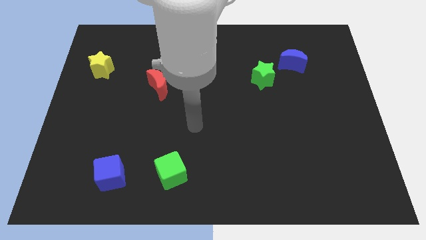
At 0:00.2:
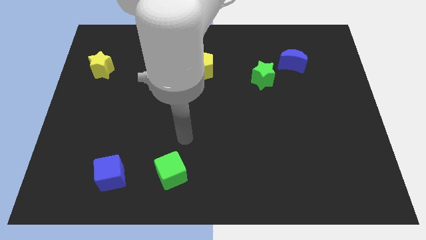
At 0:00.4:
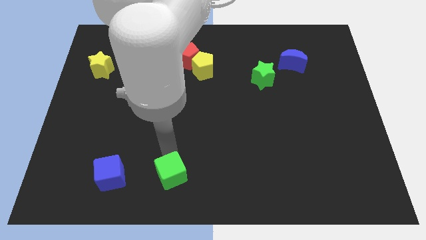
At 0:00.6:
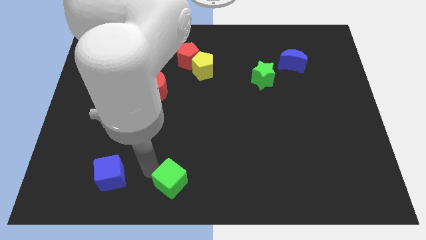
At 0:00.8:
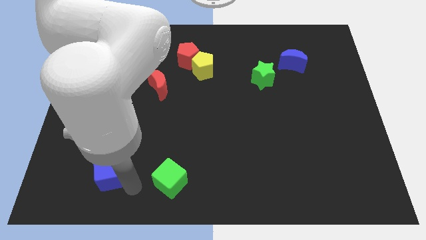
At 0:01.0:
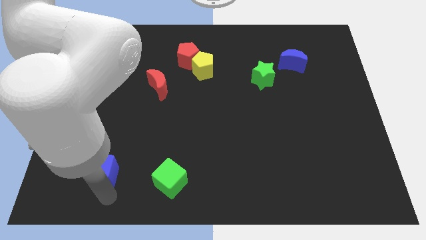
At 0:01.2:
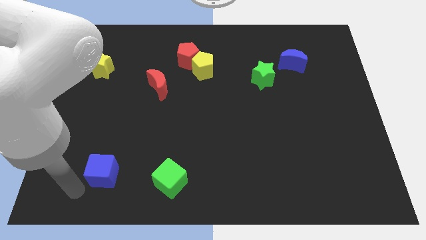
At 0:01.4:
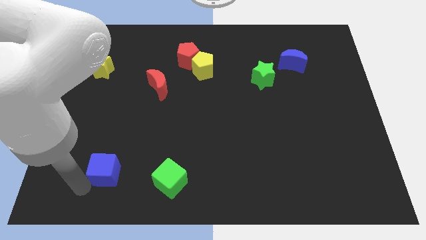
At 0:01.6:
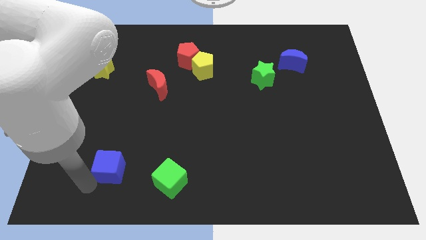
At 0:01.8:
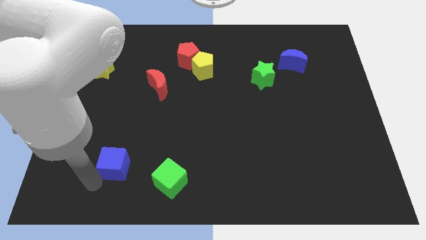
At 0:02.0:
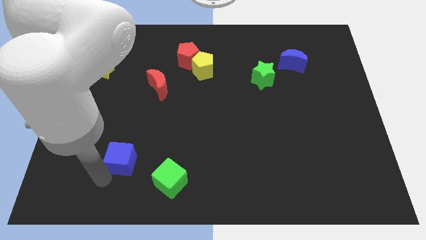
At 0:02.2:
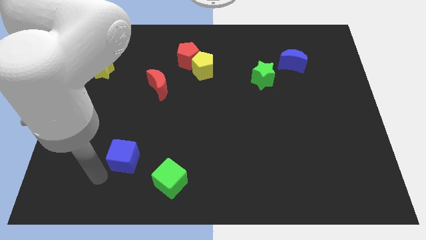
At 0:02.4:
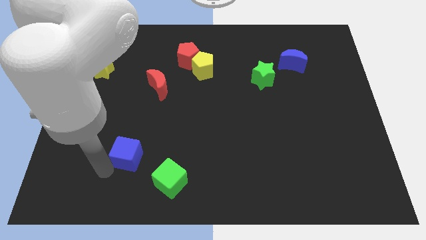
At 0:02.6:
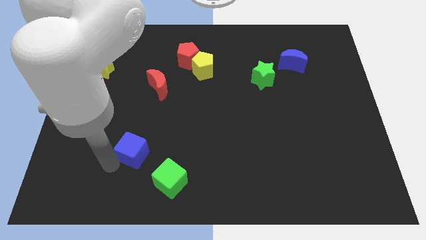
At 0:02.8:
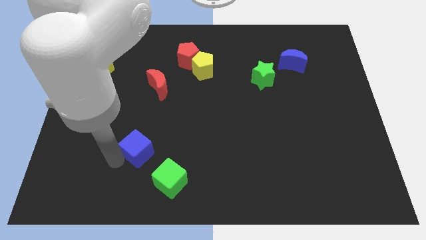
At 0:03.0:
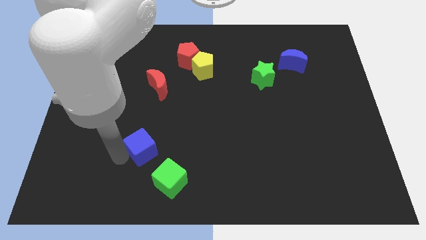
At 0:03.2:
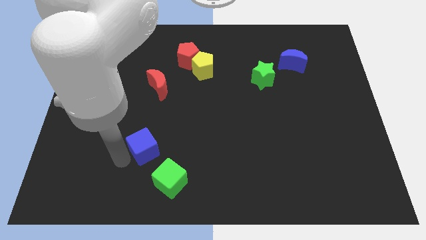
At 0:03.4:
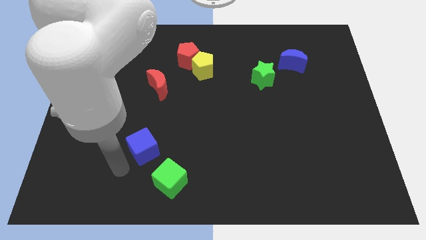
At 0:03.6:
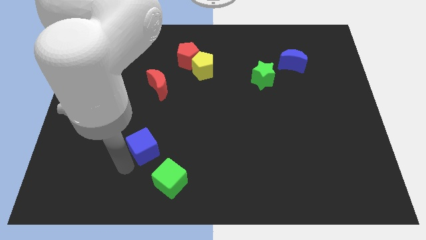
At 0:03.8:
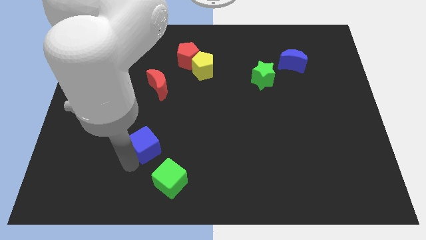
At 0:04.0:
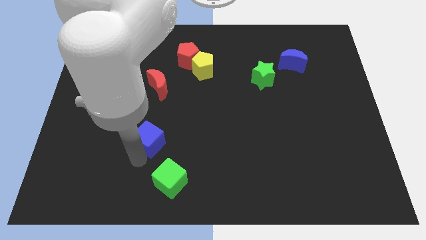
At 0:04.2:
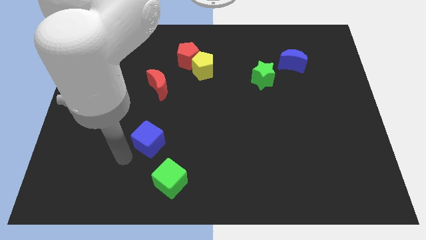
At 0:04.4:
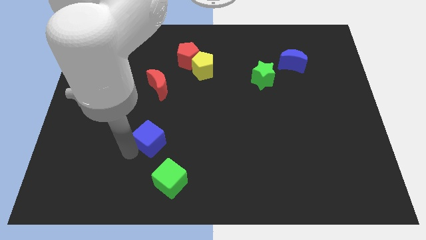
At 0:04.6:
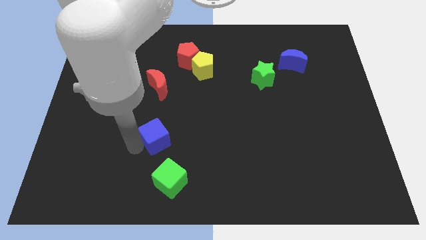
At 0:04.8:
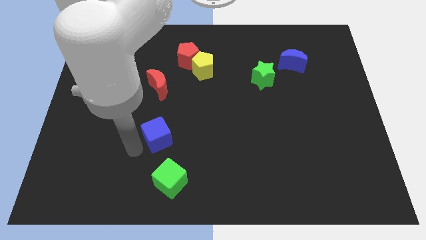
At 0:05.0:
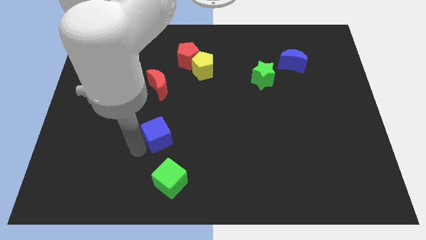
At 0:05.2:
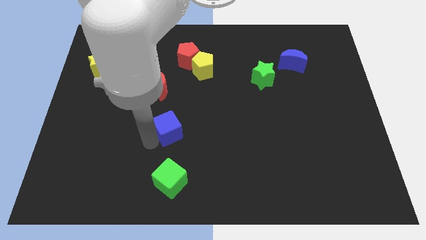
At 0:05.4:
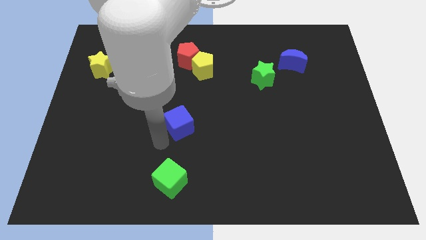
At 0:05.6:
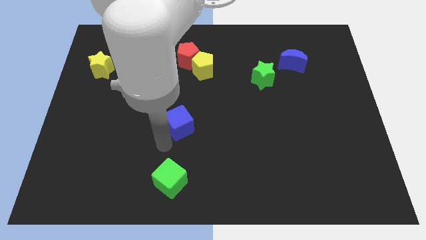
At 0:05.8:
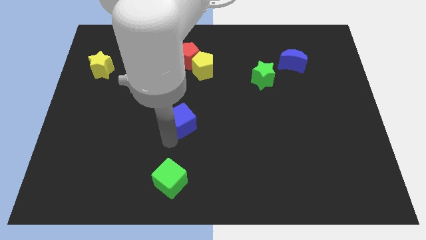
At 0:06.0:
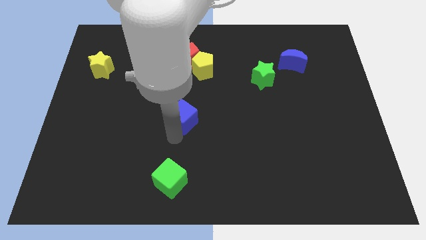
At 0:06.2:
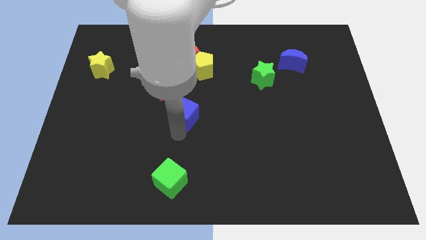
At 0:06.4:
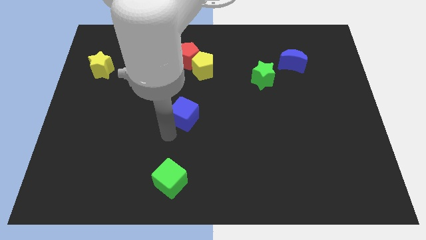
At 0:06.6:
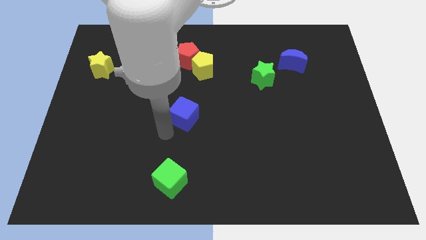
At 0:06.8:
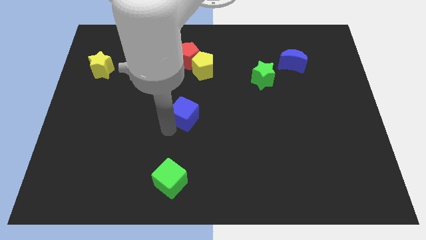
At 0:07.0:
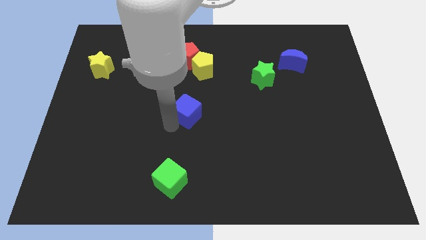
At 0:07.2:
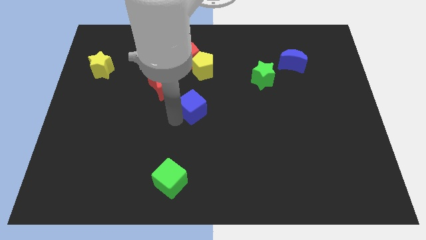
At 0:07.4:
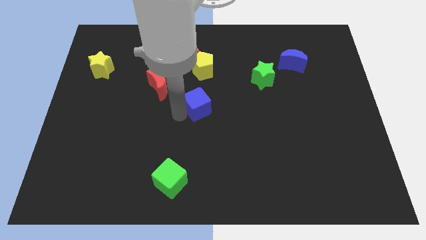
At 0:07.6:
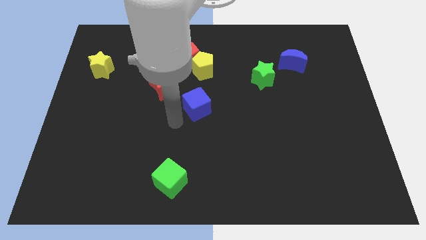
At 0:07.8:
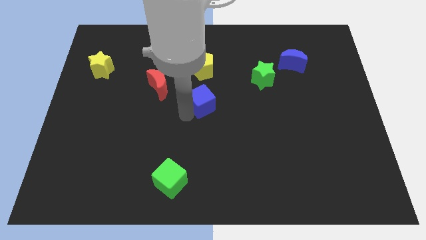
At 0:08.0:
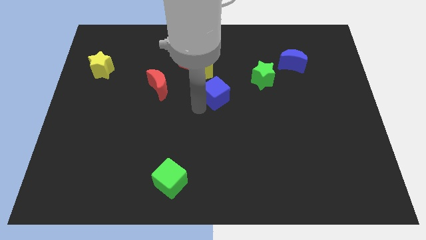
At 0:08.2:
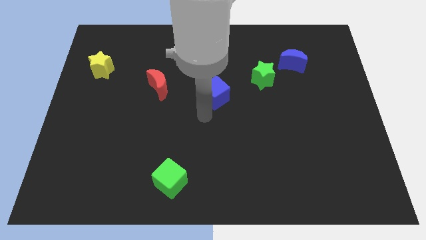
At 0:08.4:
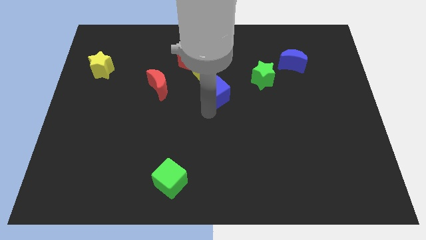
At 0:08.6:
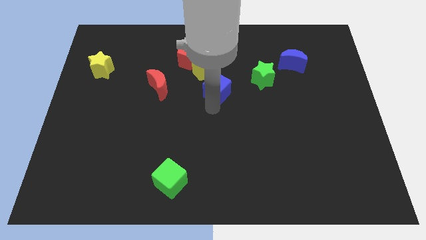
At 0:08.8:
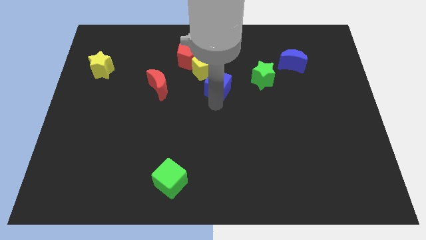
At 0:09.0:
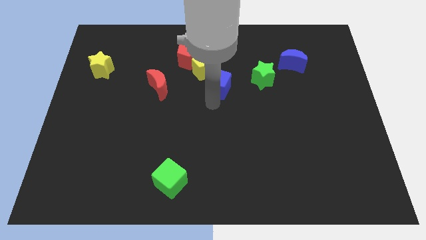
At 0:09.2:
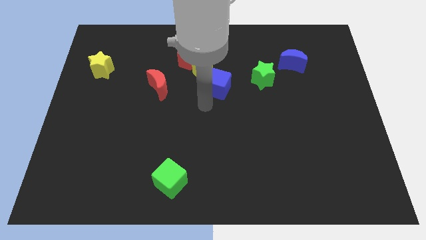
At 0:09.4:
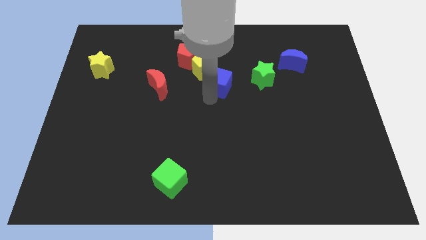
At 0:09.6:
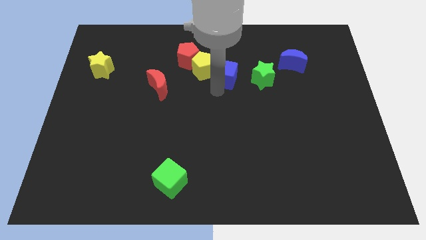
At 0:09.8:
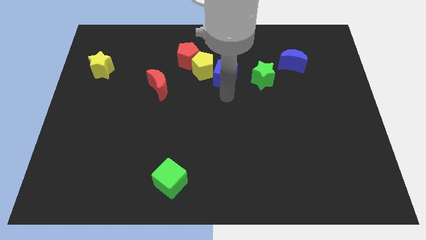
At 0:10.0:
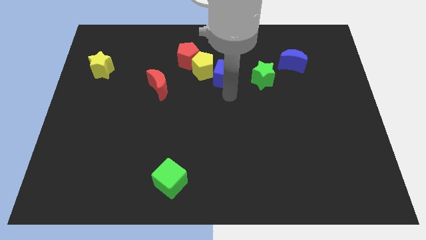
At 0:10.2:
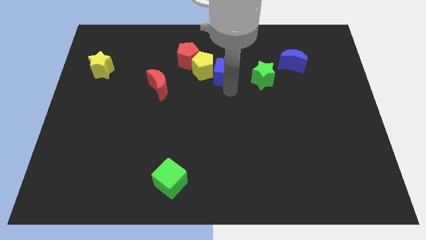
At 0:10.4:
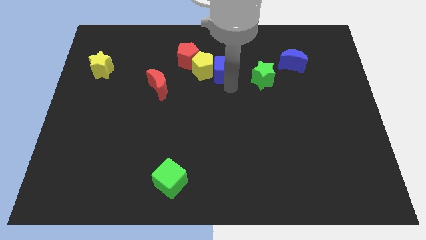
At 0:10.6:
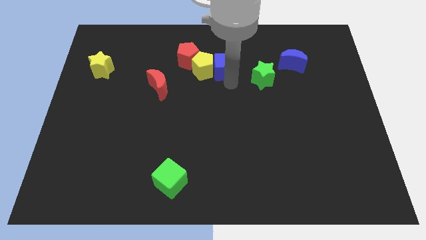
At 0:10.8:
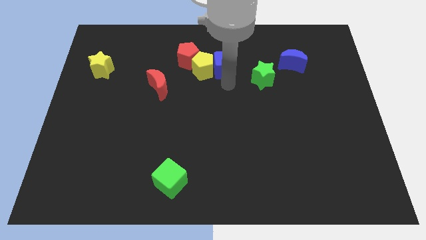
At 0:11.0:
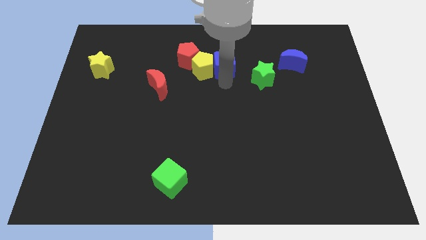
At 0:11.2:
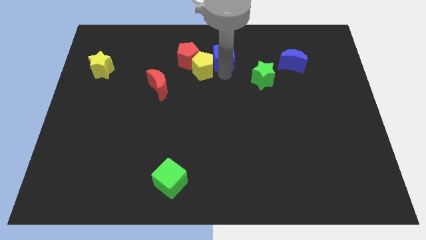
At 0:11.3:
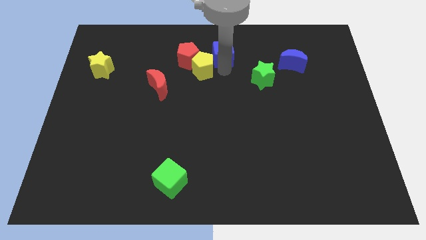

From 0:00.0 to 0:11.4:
slide the blue cube to the top side

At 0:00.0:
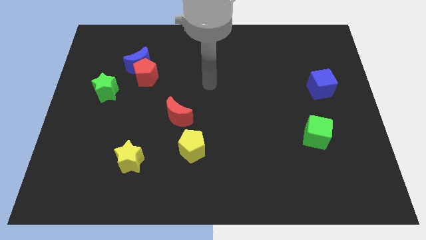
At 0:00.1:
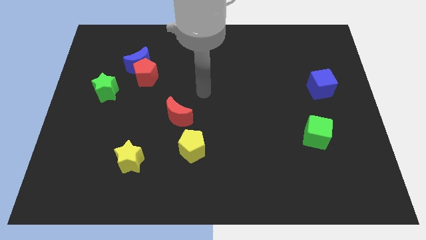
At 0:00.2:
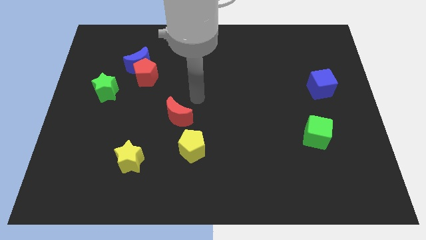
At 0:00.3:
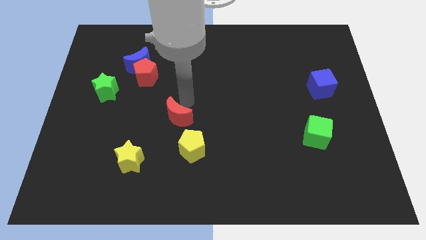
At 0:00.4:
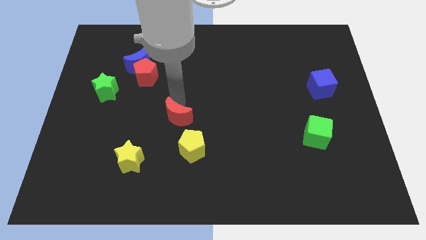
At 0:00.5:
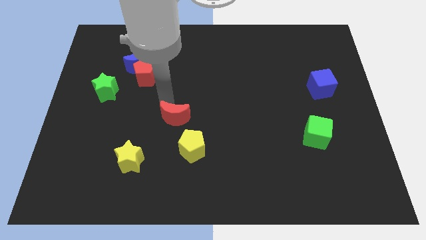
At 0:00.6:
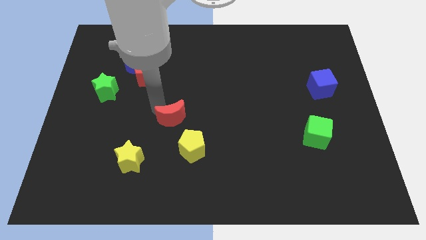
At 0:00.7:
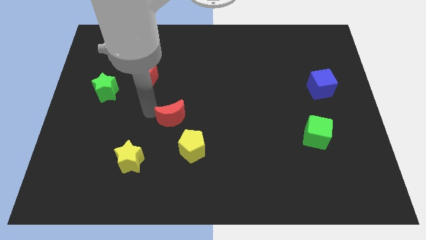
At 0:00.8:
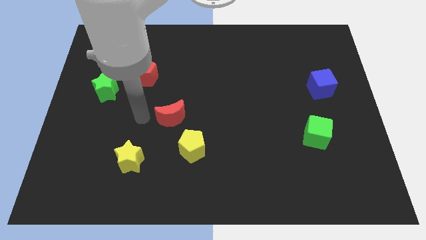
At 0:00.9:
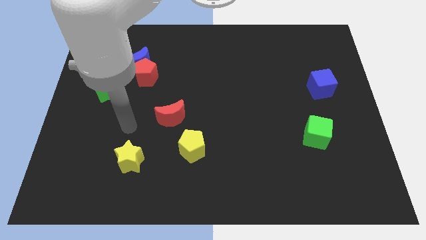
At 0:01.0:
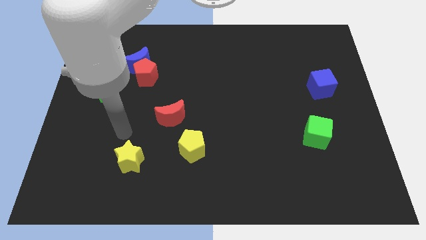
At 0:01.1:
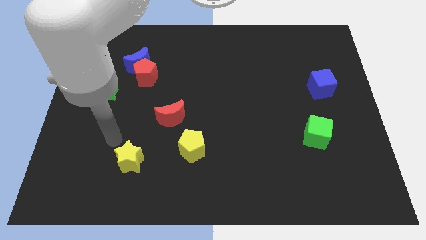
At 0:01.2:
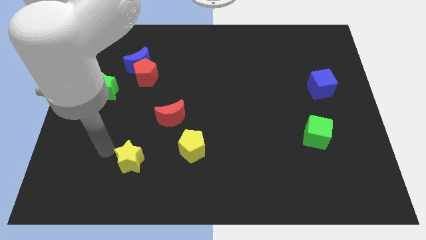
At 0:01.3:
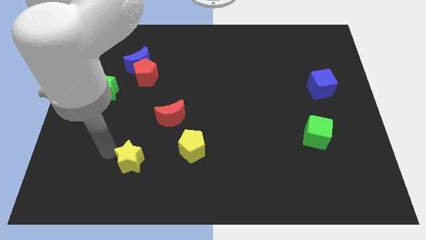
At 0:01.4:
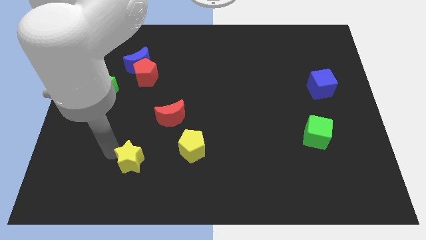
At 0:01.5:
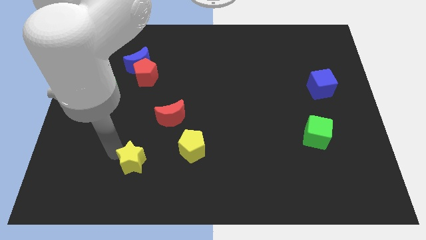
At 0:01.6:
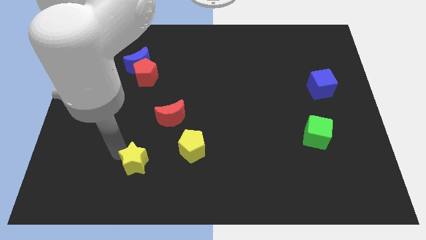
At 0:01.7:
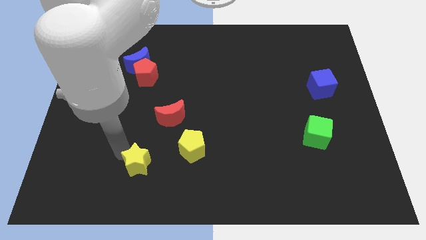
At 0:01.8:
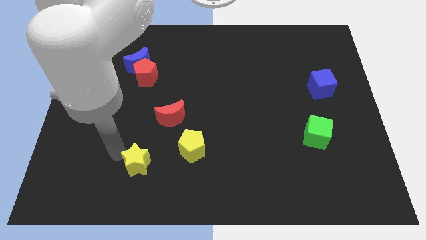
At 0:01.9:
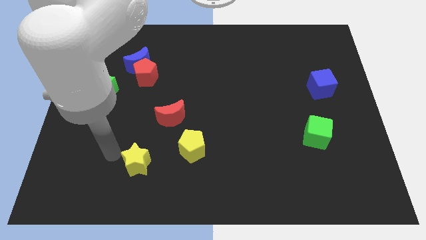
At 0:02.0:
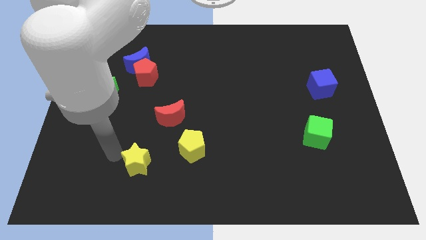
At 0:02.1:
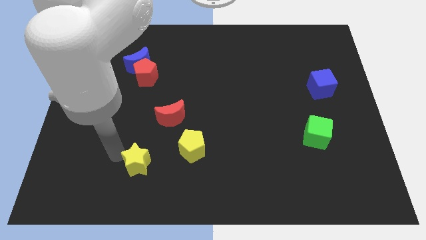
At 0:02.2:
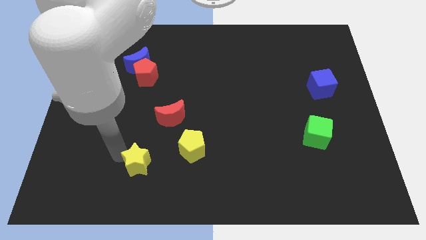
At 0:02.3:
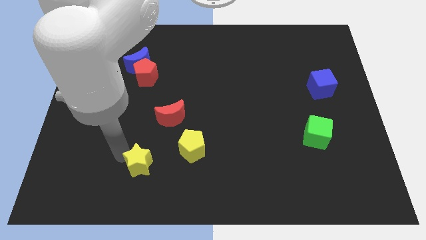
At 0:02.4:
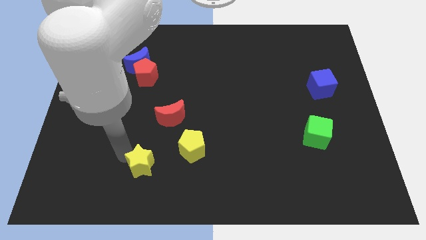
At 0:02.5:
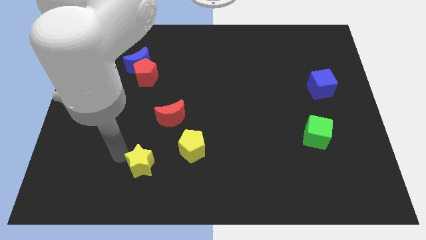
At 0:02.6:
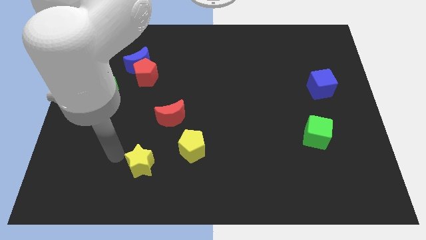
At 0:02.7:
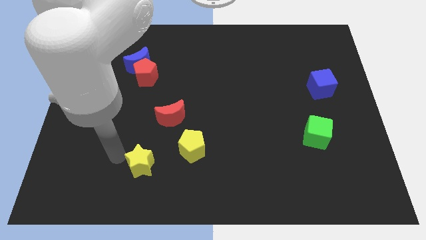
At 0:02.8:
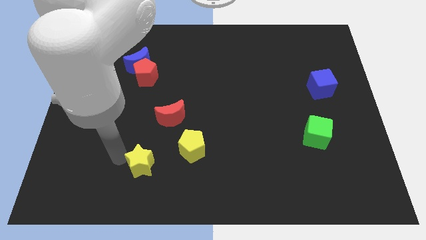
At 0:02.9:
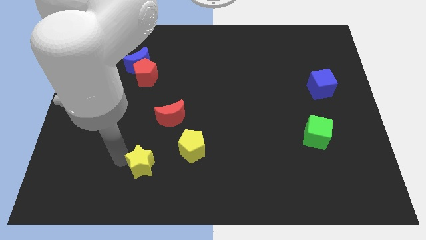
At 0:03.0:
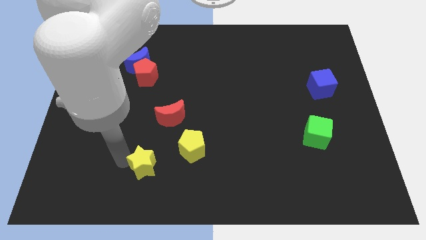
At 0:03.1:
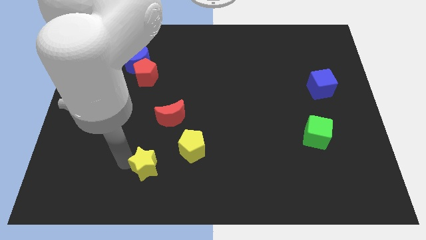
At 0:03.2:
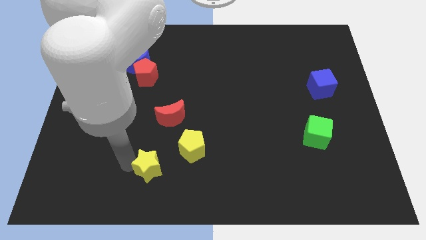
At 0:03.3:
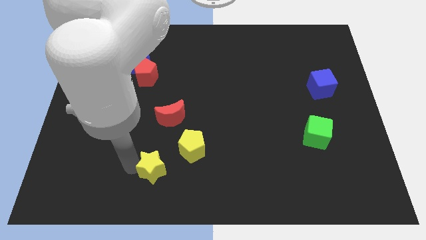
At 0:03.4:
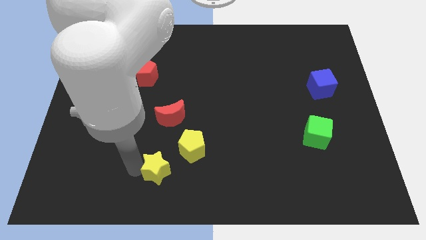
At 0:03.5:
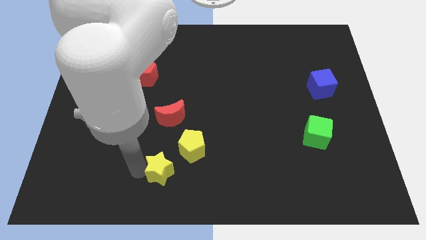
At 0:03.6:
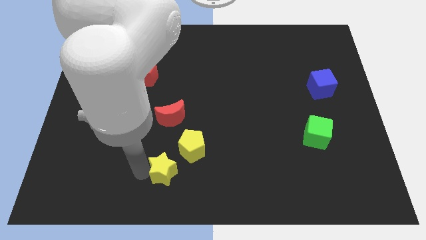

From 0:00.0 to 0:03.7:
put the yellow star to the bottom side
